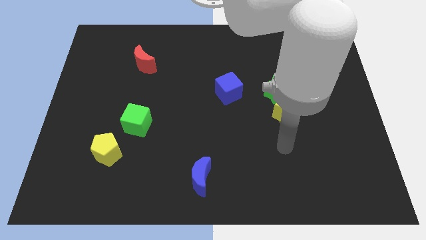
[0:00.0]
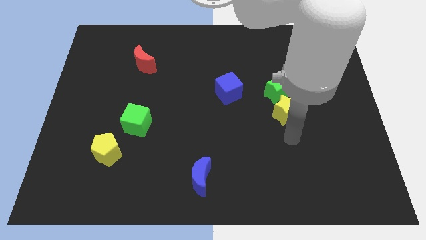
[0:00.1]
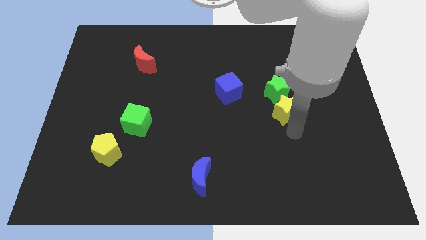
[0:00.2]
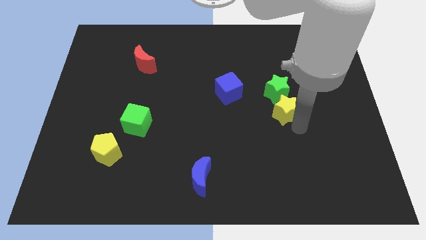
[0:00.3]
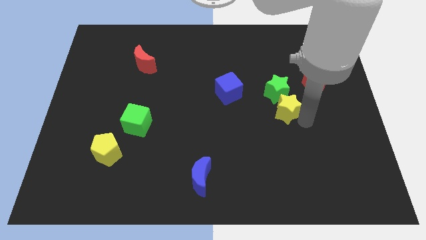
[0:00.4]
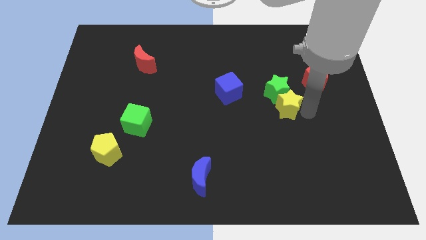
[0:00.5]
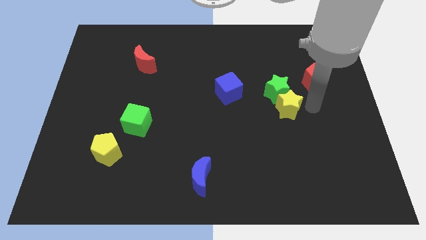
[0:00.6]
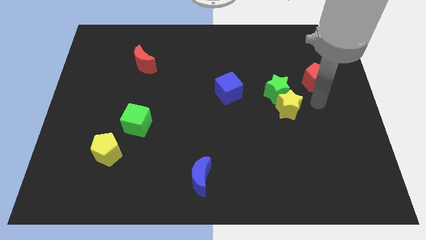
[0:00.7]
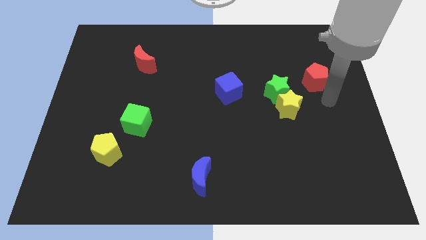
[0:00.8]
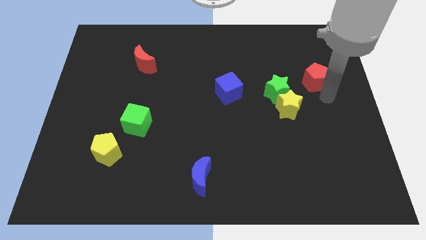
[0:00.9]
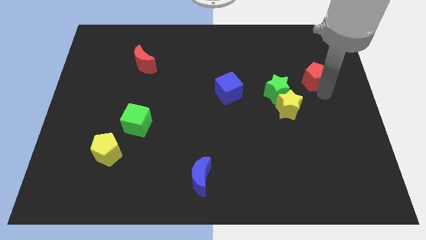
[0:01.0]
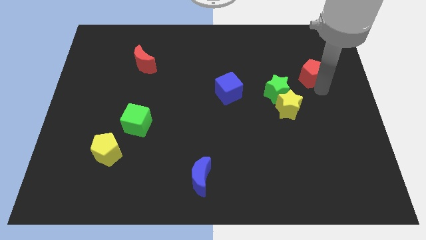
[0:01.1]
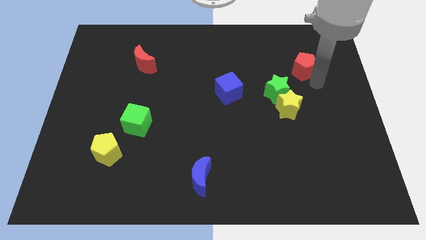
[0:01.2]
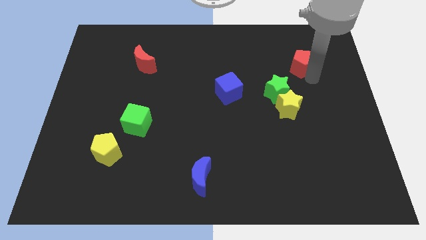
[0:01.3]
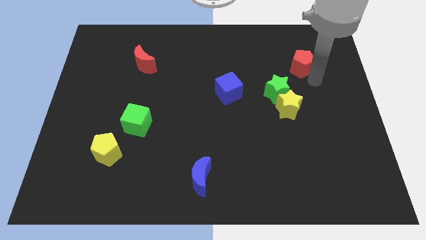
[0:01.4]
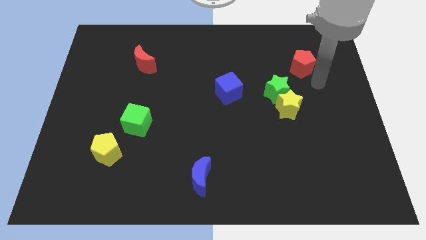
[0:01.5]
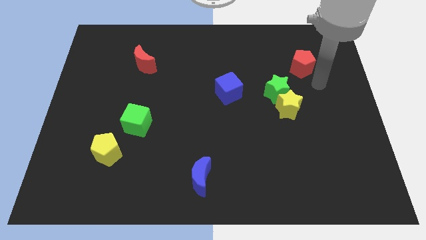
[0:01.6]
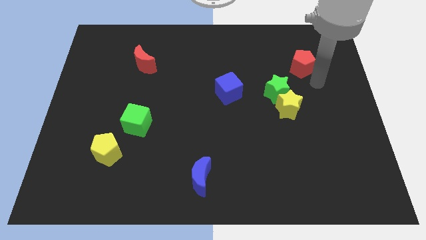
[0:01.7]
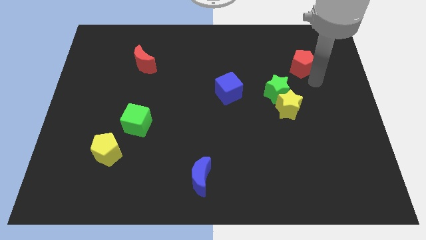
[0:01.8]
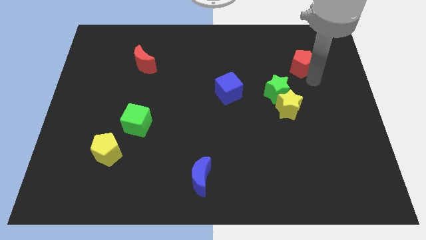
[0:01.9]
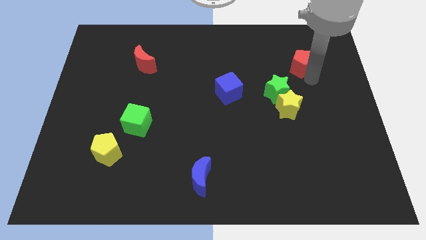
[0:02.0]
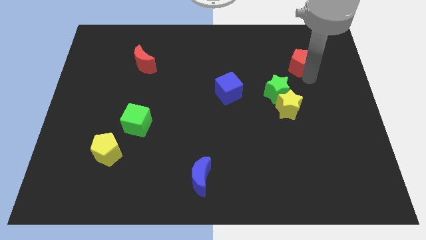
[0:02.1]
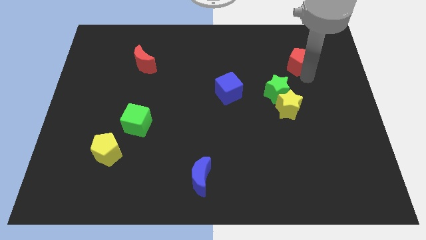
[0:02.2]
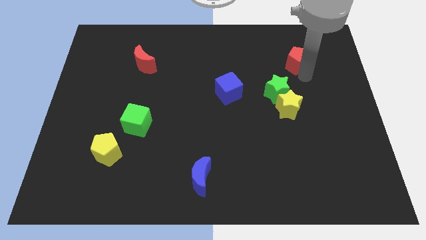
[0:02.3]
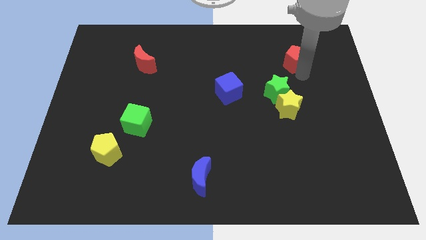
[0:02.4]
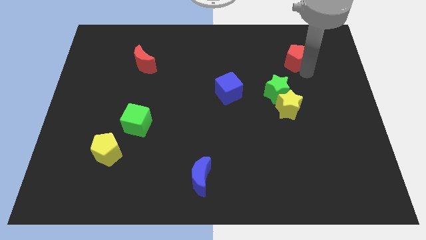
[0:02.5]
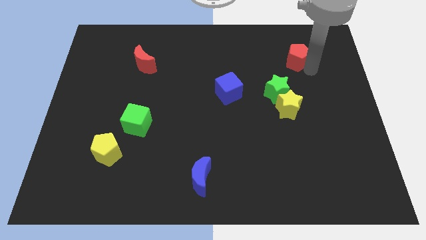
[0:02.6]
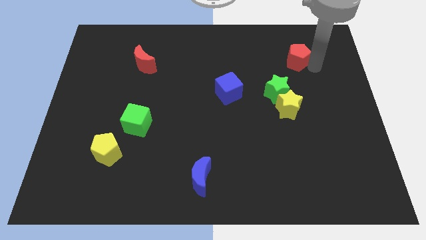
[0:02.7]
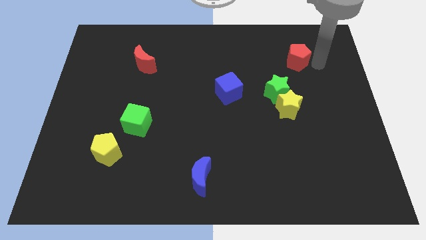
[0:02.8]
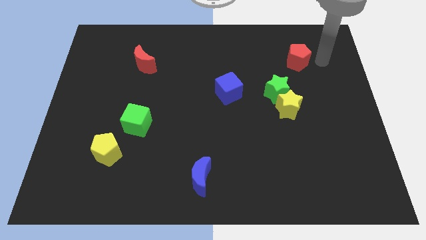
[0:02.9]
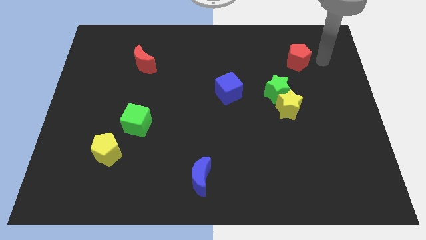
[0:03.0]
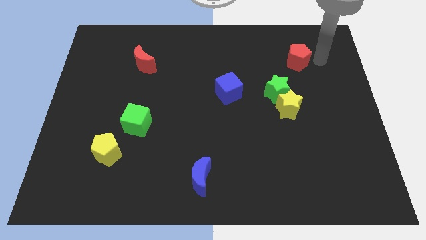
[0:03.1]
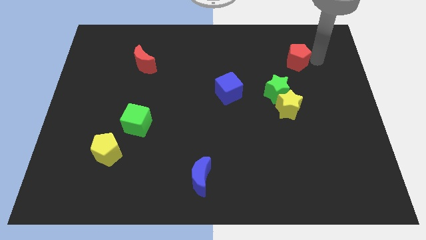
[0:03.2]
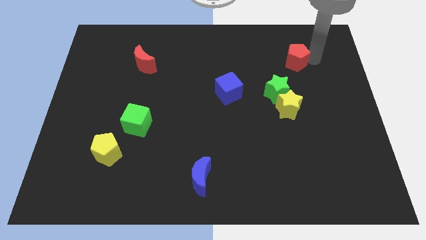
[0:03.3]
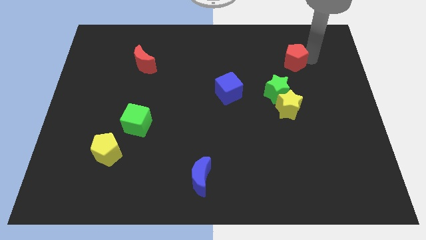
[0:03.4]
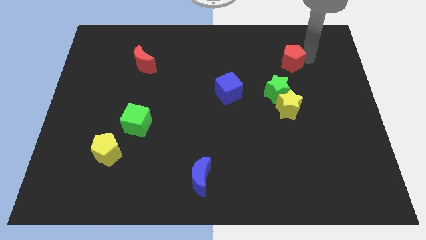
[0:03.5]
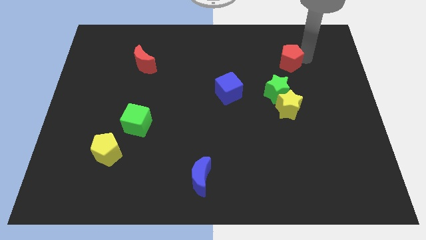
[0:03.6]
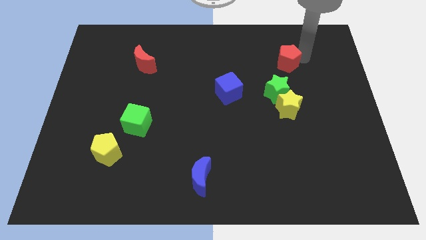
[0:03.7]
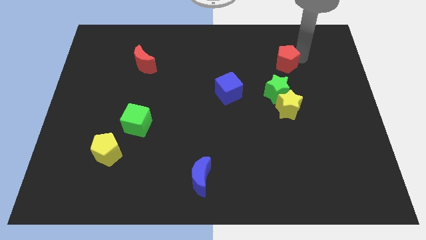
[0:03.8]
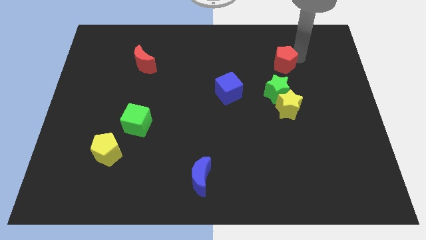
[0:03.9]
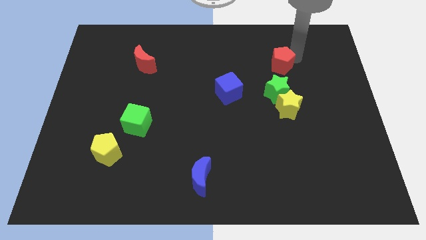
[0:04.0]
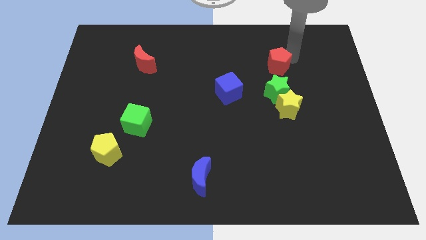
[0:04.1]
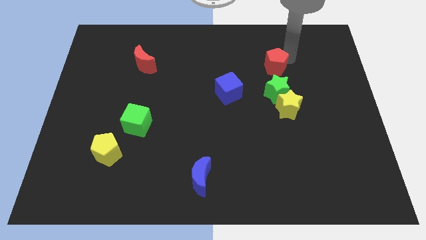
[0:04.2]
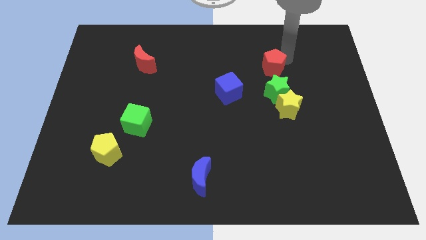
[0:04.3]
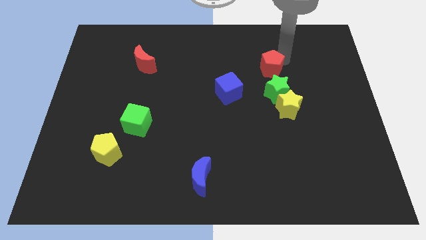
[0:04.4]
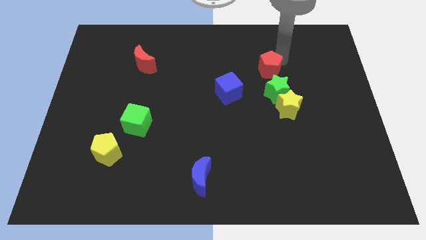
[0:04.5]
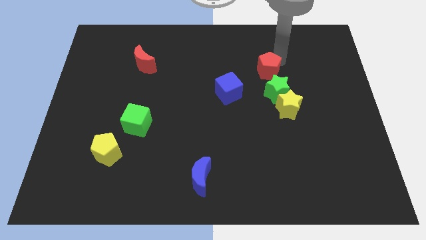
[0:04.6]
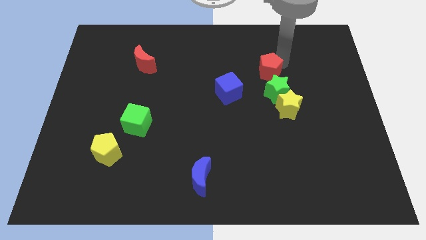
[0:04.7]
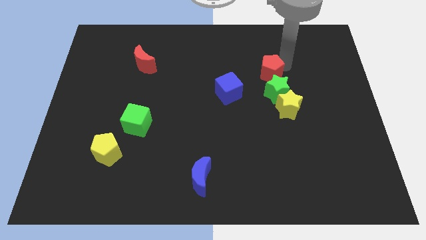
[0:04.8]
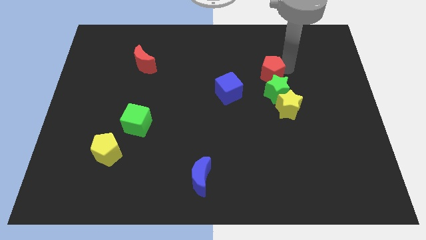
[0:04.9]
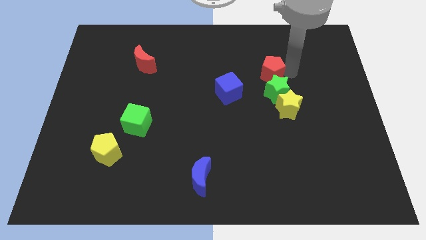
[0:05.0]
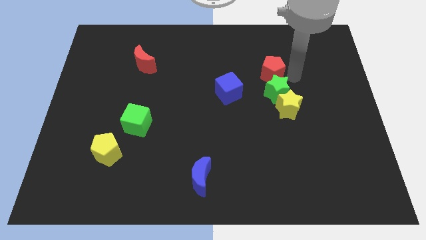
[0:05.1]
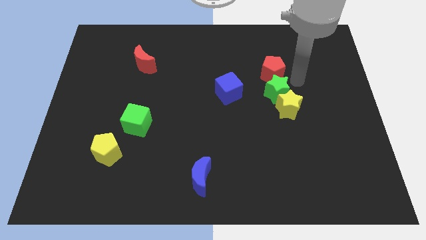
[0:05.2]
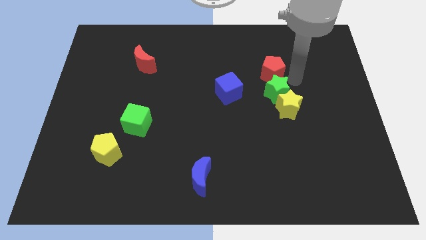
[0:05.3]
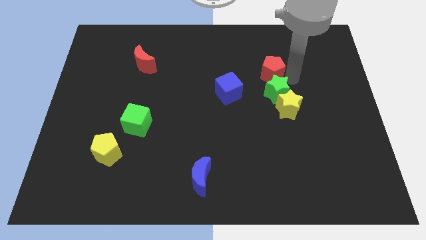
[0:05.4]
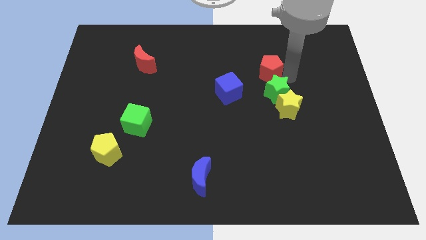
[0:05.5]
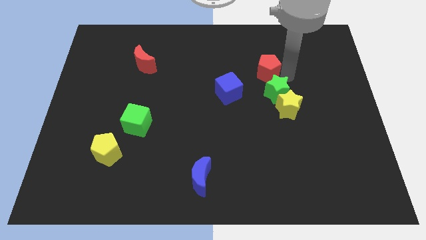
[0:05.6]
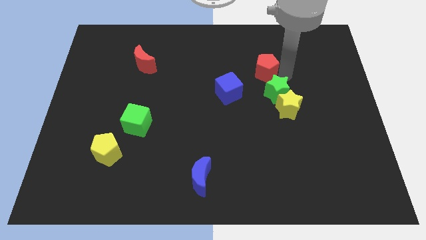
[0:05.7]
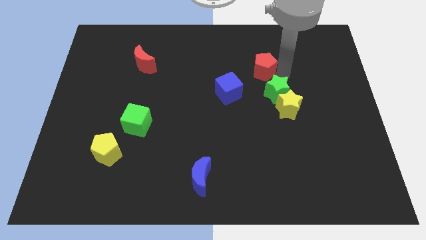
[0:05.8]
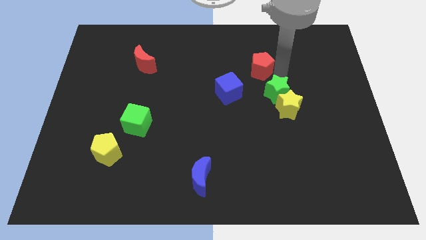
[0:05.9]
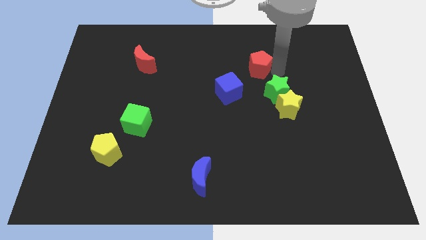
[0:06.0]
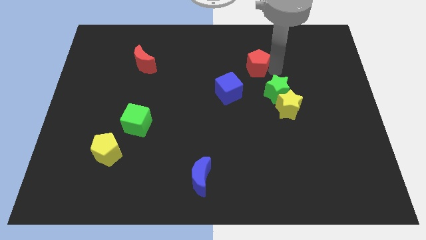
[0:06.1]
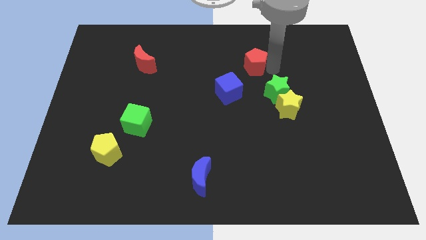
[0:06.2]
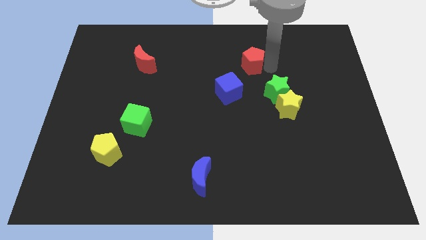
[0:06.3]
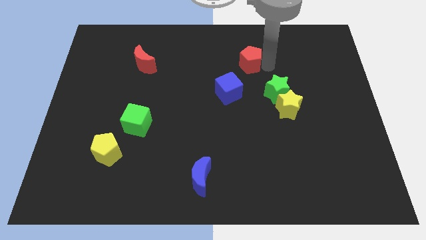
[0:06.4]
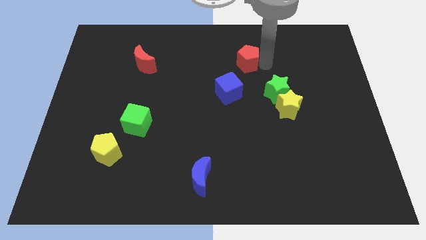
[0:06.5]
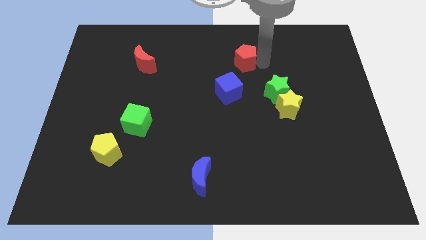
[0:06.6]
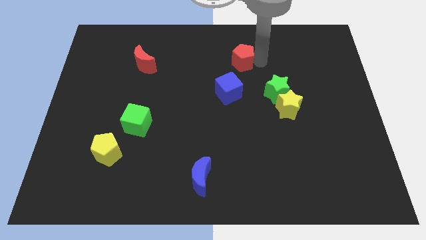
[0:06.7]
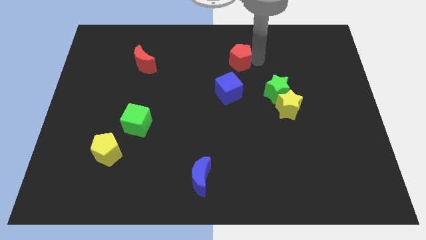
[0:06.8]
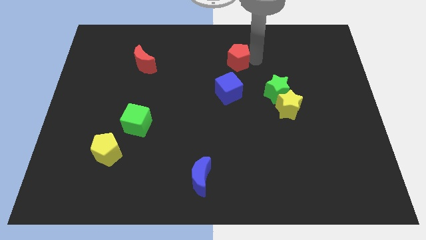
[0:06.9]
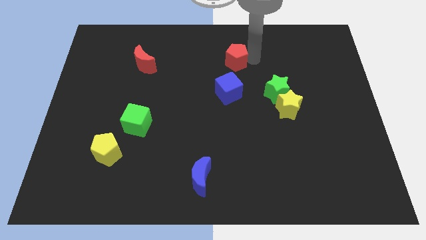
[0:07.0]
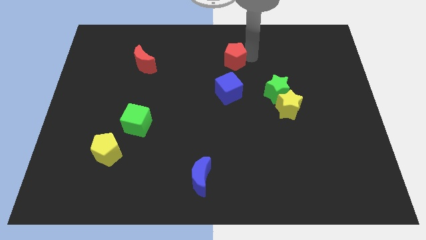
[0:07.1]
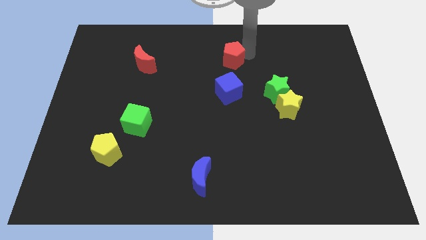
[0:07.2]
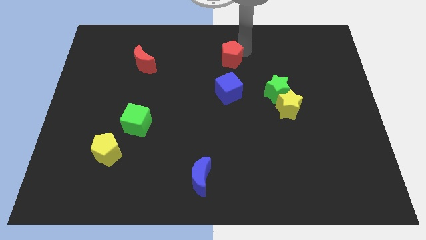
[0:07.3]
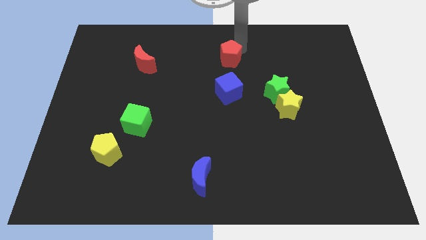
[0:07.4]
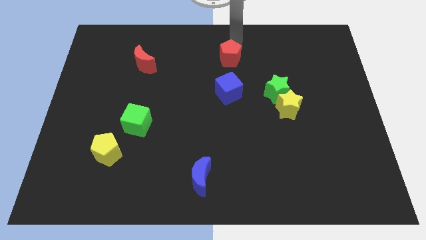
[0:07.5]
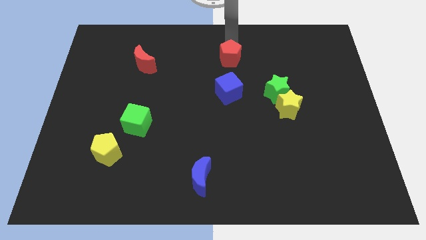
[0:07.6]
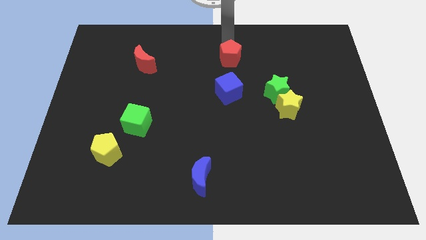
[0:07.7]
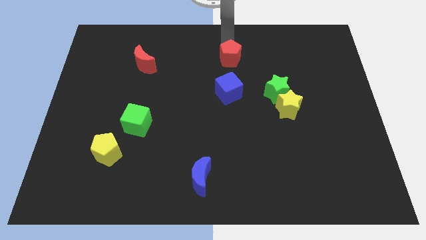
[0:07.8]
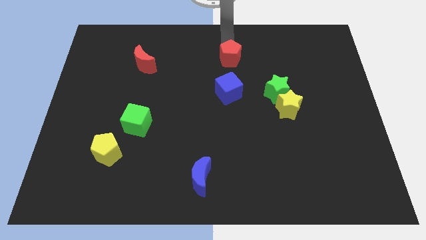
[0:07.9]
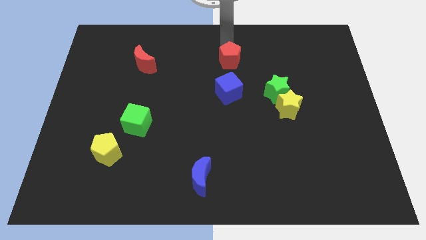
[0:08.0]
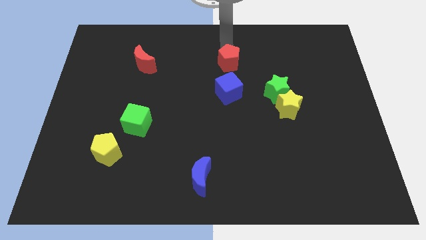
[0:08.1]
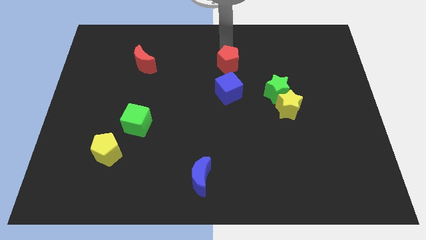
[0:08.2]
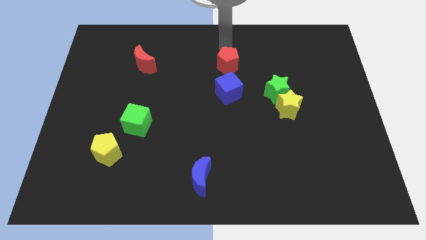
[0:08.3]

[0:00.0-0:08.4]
slide the red pentagon to the left
